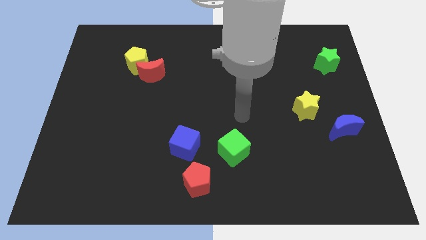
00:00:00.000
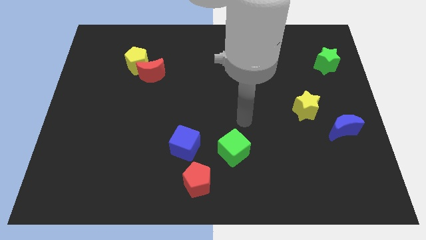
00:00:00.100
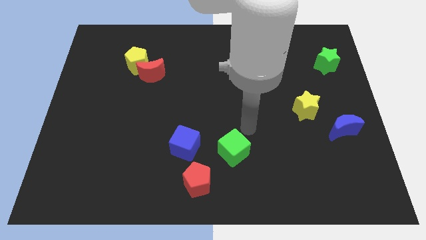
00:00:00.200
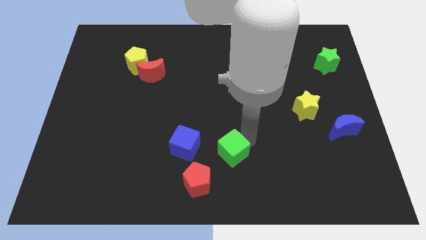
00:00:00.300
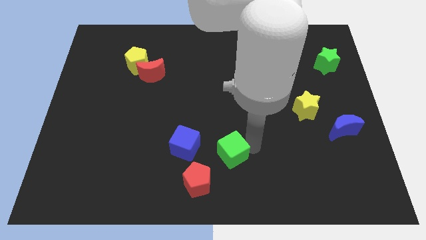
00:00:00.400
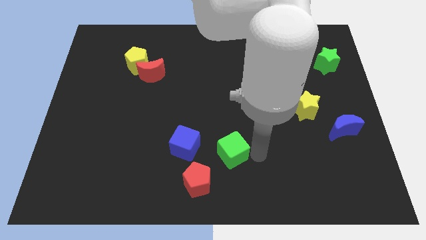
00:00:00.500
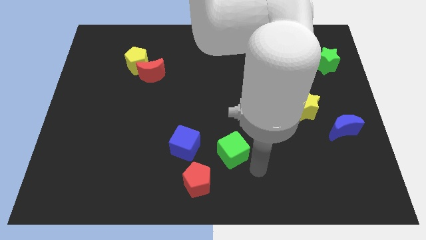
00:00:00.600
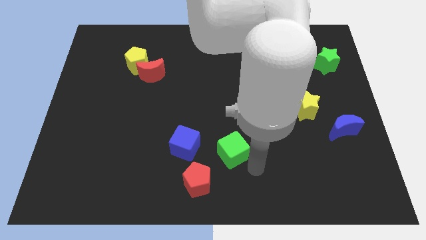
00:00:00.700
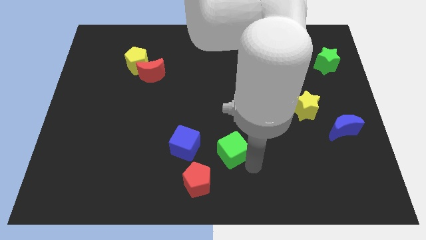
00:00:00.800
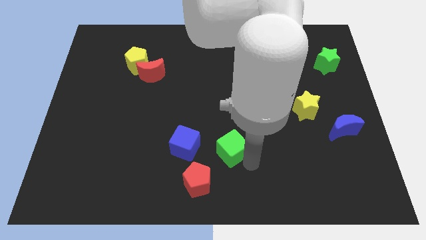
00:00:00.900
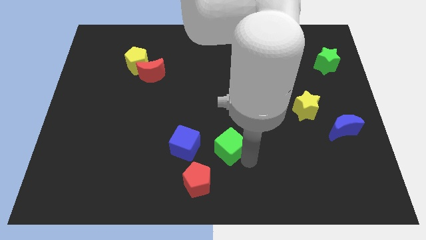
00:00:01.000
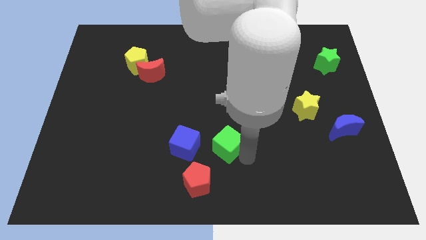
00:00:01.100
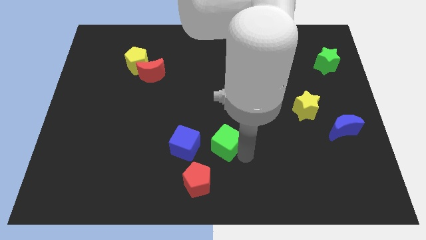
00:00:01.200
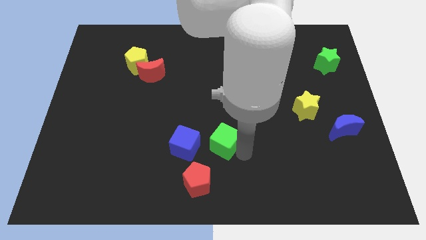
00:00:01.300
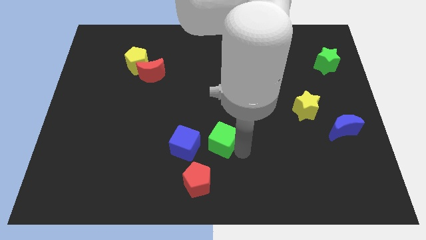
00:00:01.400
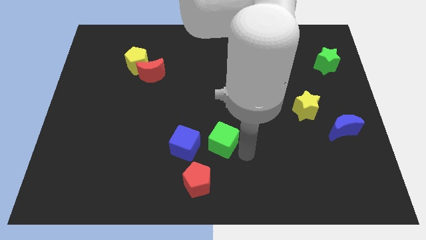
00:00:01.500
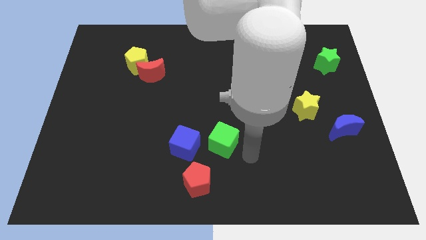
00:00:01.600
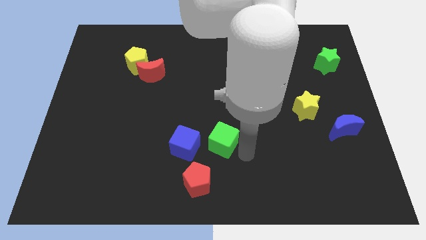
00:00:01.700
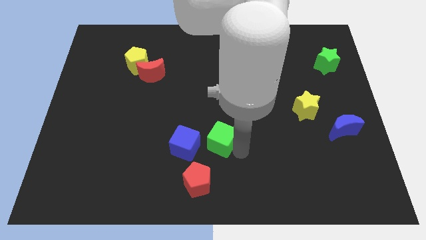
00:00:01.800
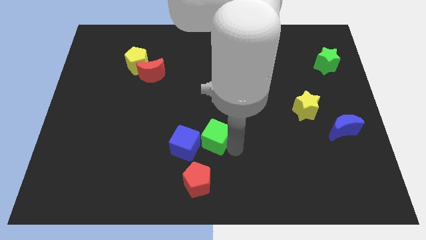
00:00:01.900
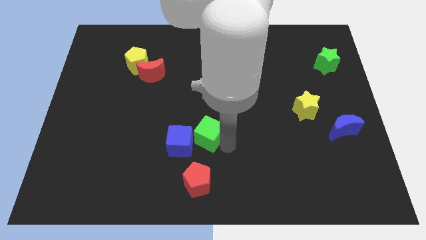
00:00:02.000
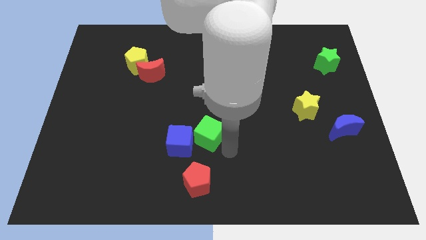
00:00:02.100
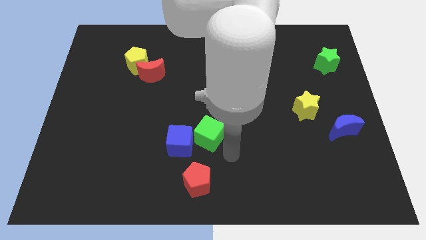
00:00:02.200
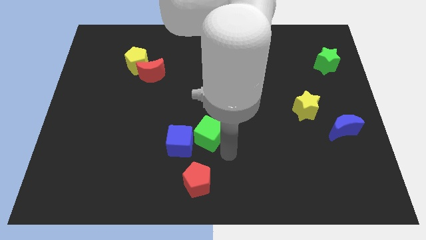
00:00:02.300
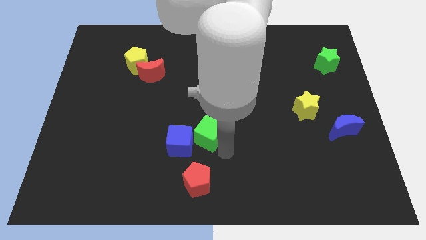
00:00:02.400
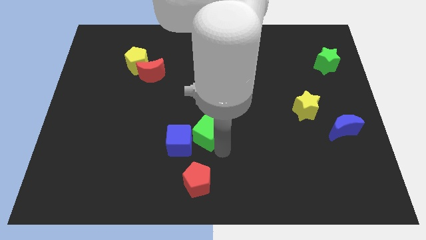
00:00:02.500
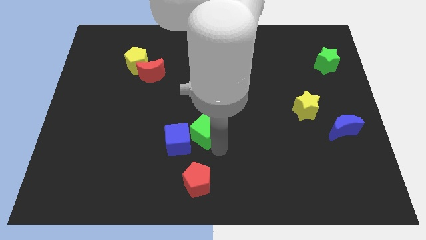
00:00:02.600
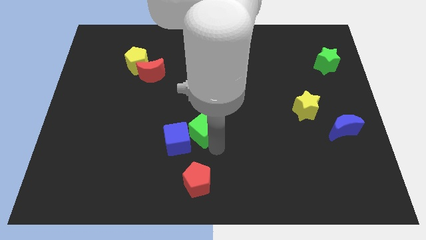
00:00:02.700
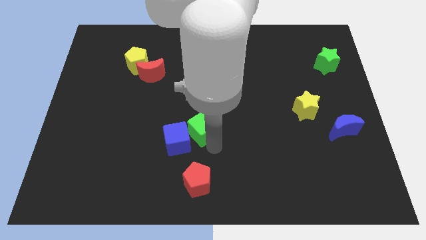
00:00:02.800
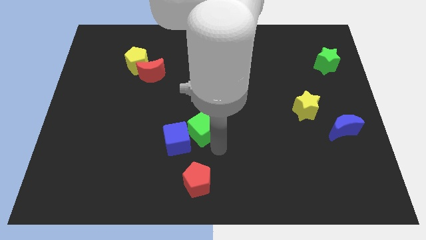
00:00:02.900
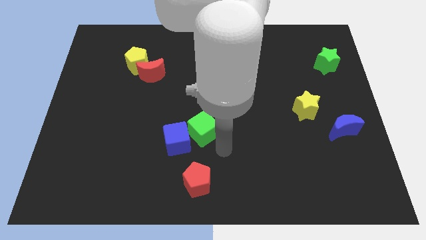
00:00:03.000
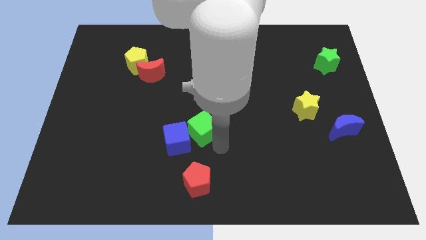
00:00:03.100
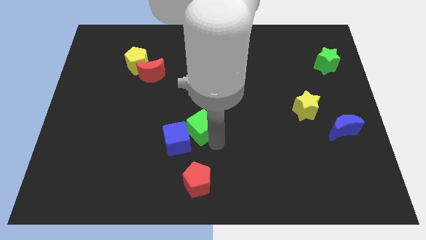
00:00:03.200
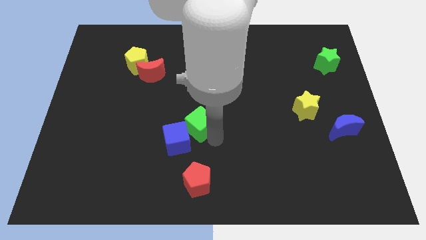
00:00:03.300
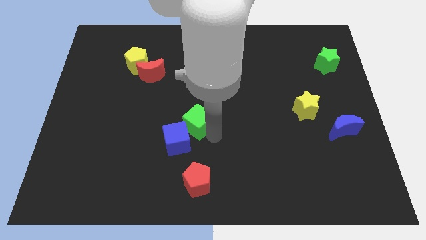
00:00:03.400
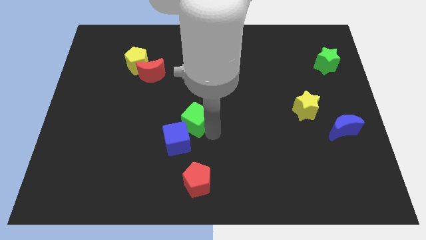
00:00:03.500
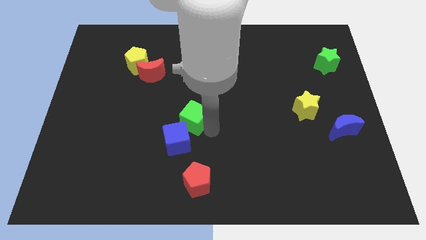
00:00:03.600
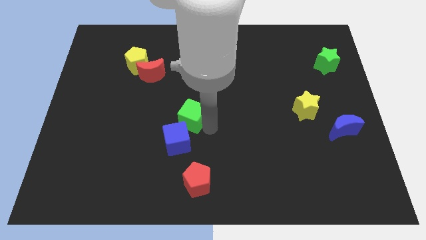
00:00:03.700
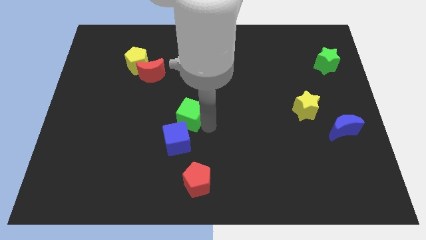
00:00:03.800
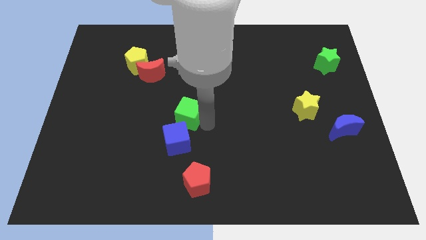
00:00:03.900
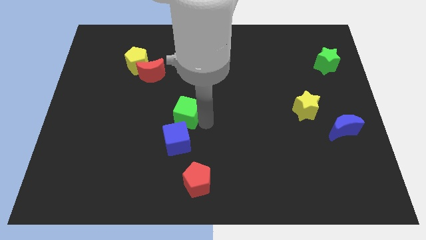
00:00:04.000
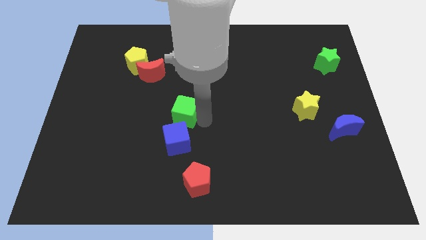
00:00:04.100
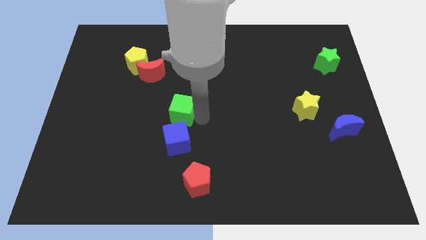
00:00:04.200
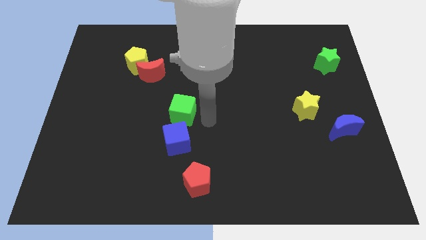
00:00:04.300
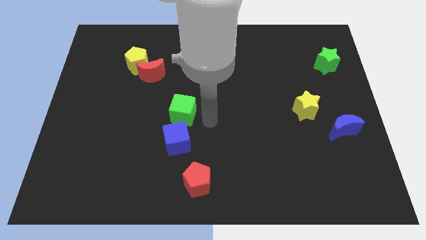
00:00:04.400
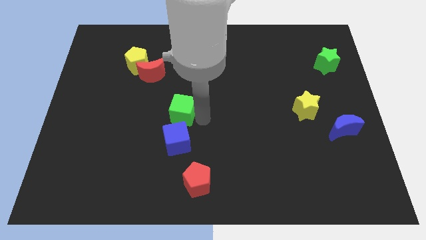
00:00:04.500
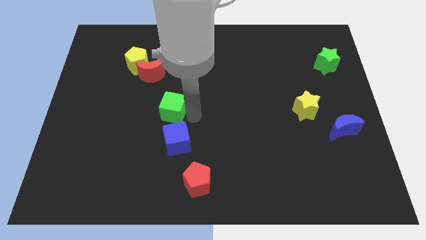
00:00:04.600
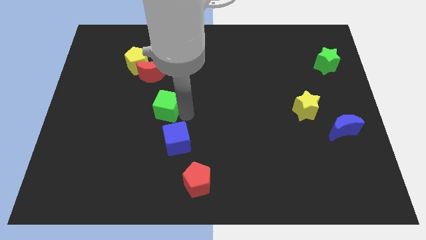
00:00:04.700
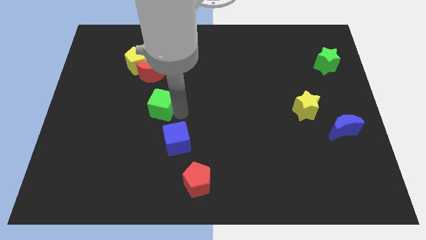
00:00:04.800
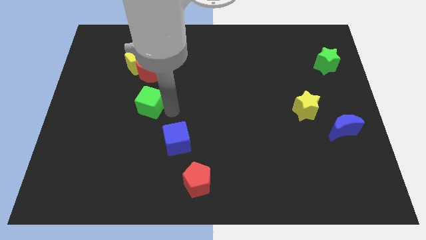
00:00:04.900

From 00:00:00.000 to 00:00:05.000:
push the green cube to the bottom of the yellow pentagon

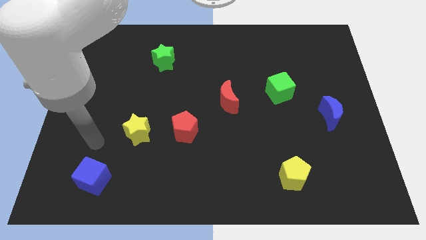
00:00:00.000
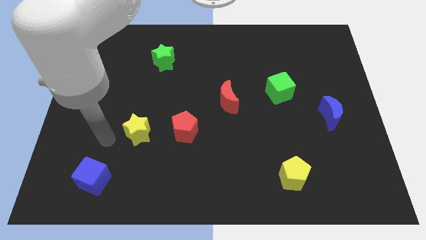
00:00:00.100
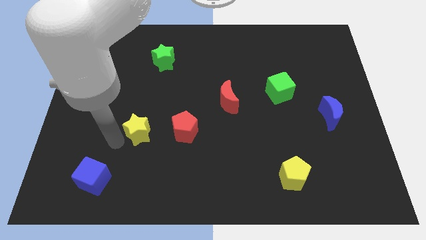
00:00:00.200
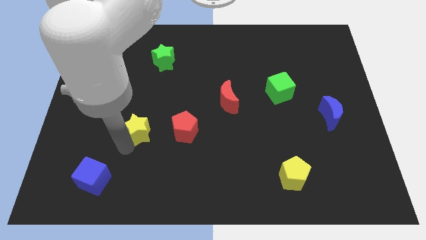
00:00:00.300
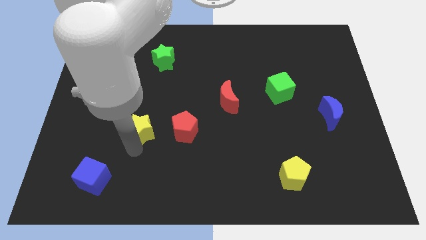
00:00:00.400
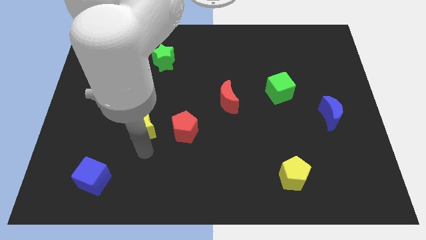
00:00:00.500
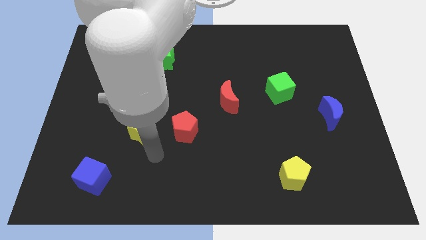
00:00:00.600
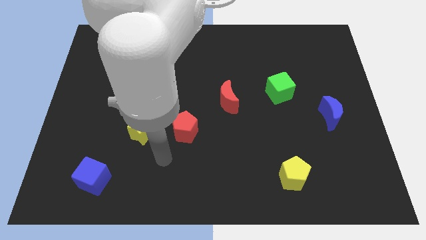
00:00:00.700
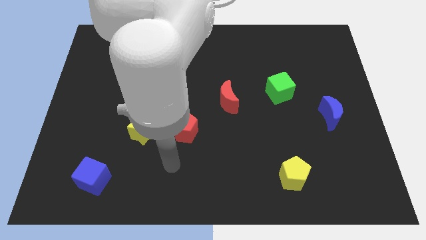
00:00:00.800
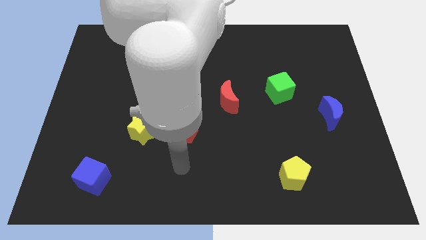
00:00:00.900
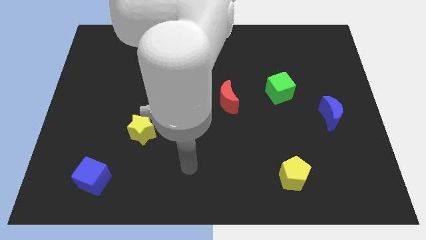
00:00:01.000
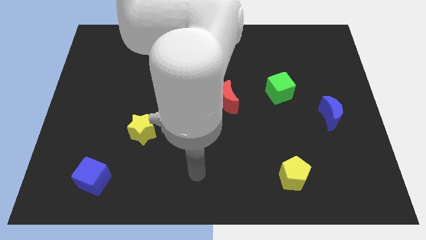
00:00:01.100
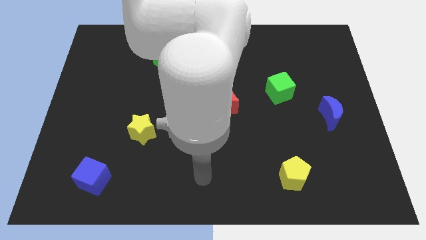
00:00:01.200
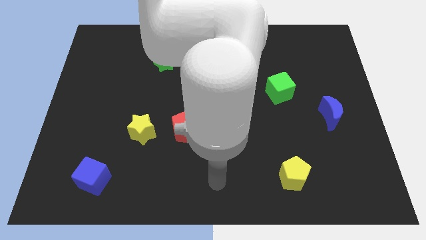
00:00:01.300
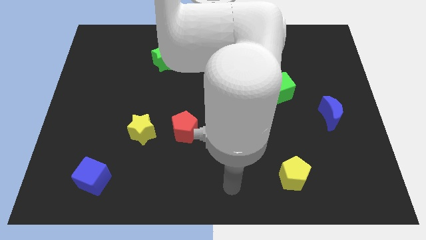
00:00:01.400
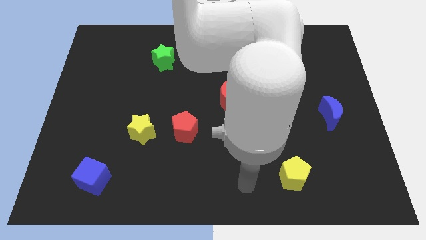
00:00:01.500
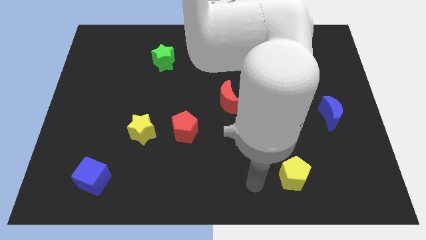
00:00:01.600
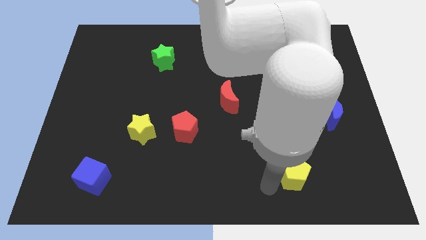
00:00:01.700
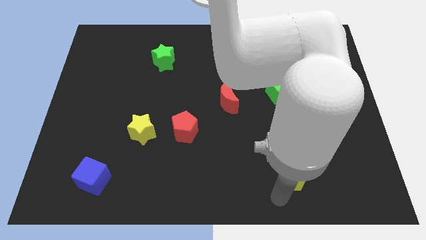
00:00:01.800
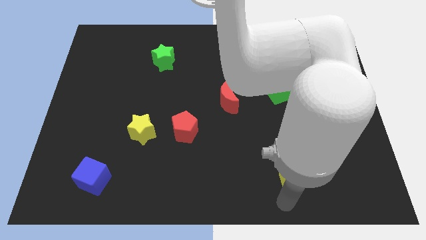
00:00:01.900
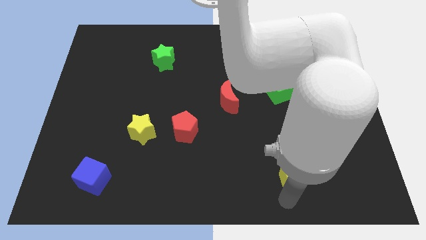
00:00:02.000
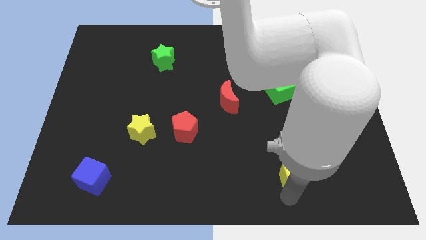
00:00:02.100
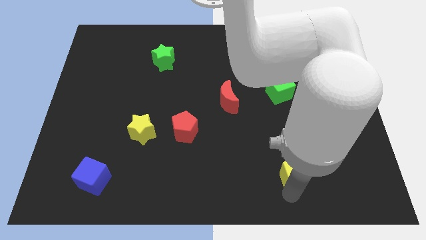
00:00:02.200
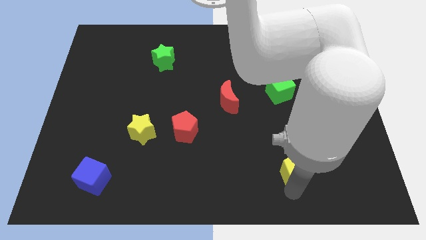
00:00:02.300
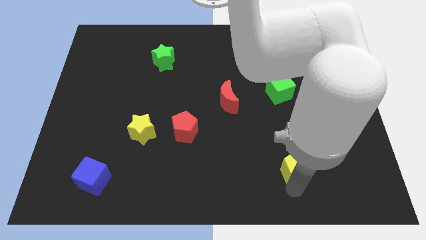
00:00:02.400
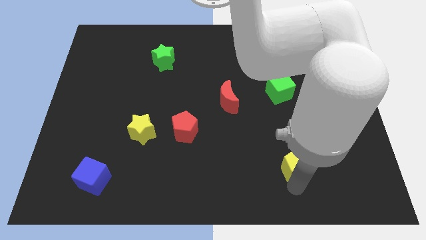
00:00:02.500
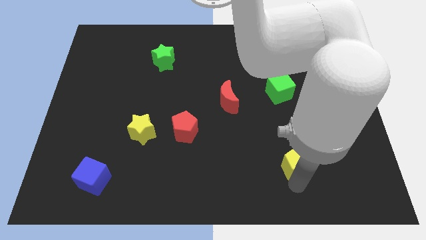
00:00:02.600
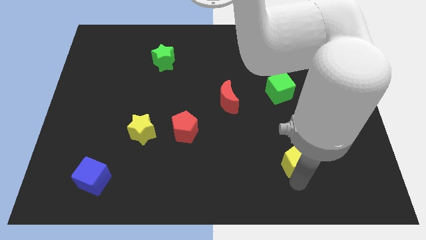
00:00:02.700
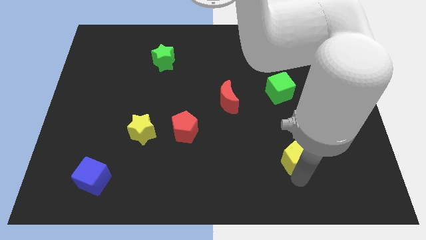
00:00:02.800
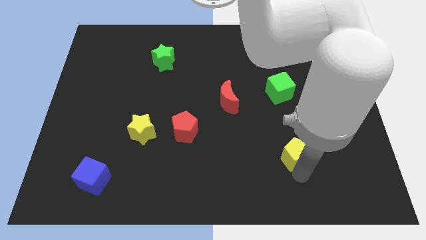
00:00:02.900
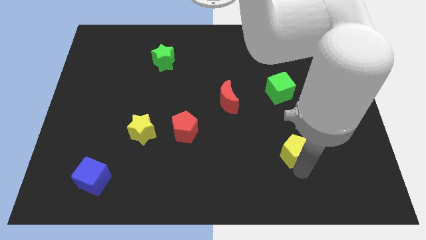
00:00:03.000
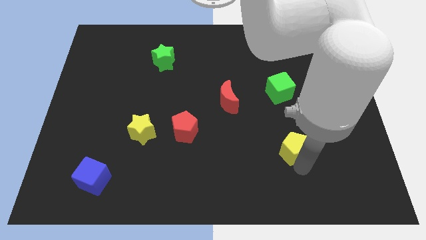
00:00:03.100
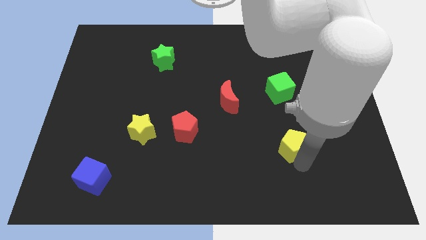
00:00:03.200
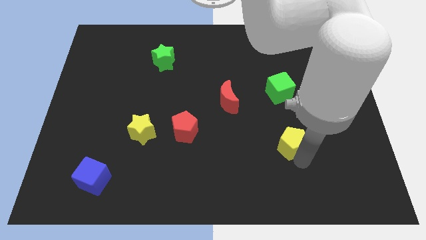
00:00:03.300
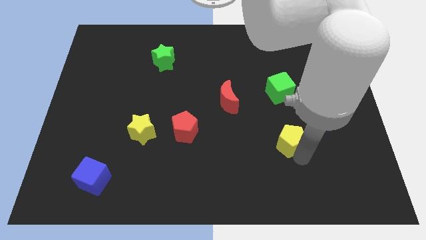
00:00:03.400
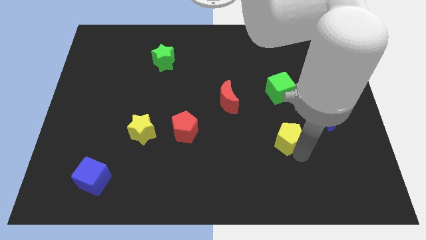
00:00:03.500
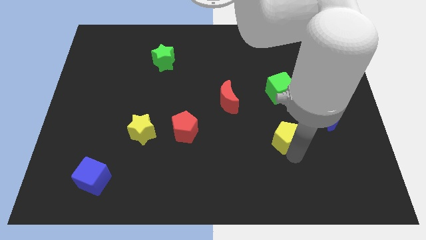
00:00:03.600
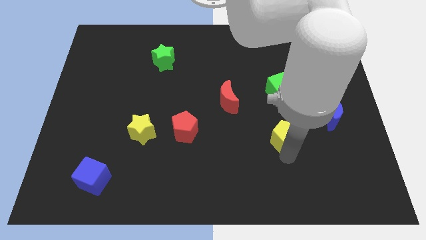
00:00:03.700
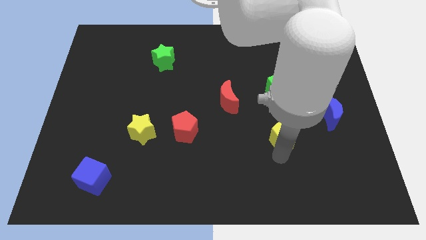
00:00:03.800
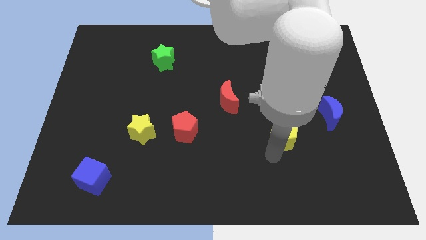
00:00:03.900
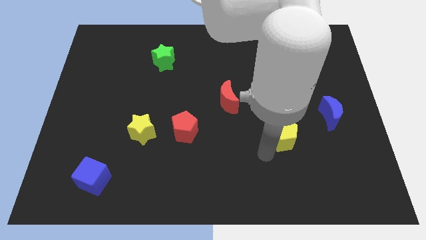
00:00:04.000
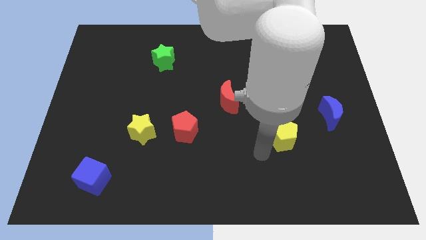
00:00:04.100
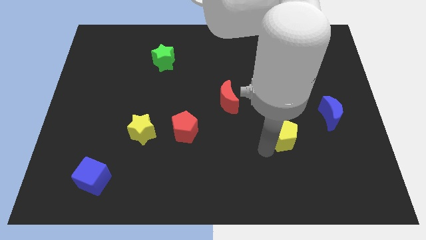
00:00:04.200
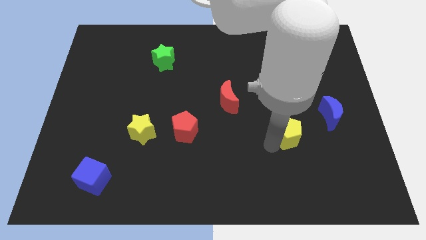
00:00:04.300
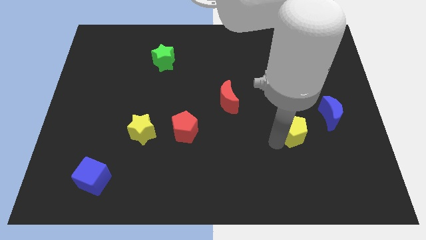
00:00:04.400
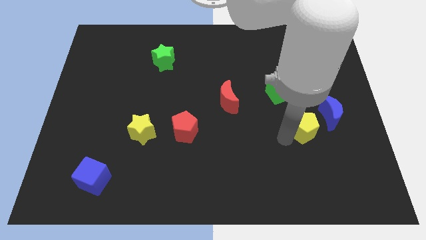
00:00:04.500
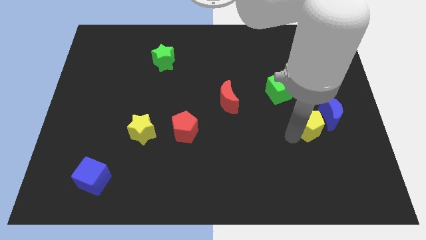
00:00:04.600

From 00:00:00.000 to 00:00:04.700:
push the yellow pentagon to the bottom right side of the green cube
